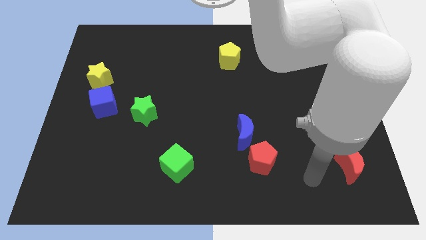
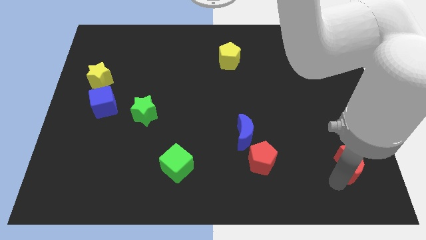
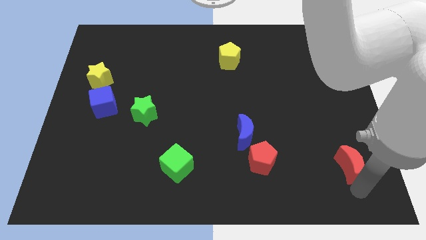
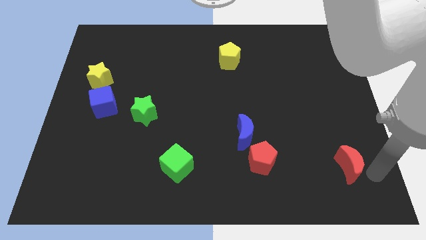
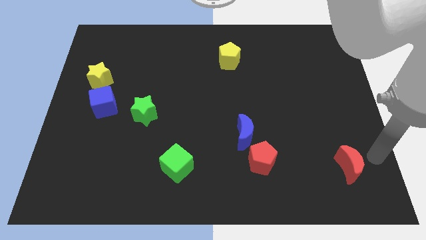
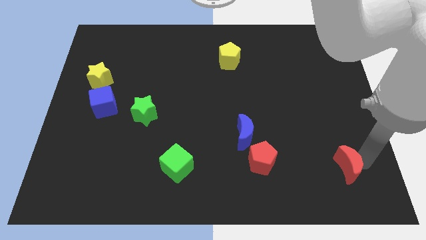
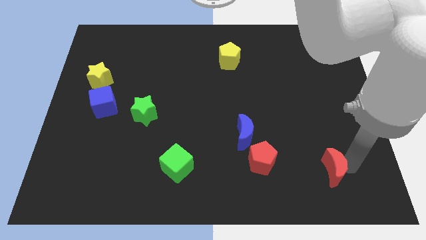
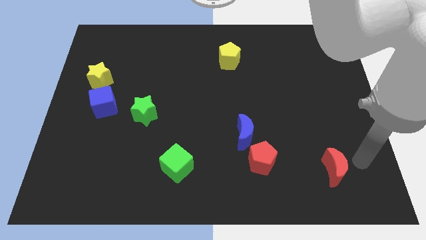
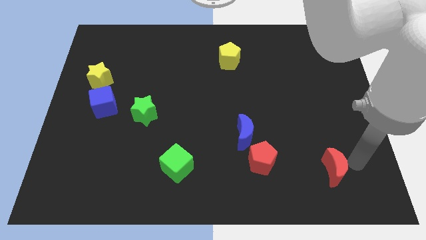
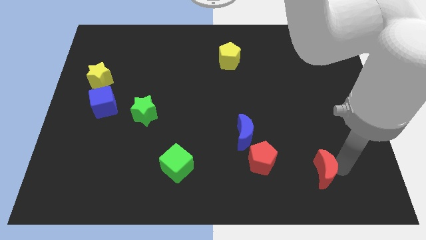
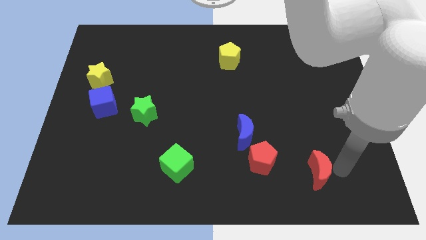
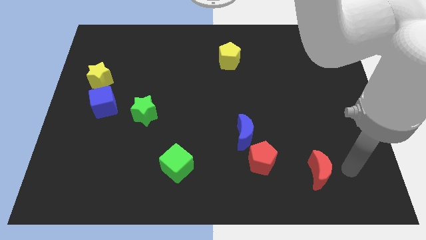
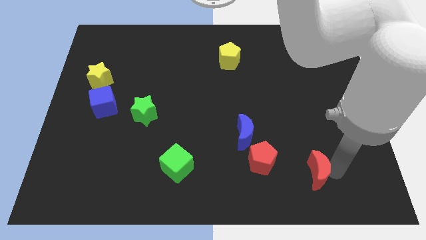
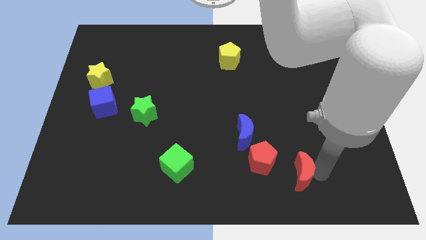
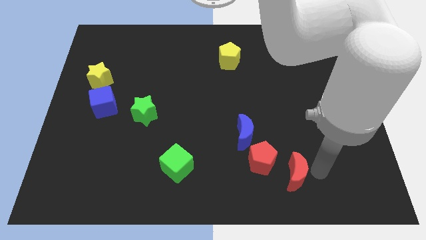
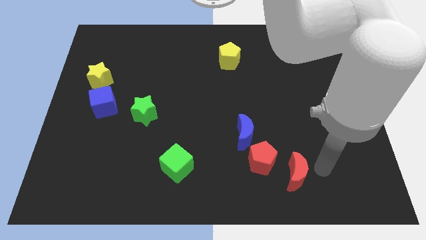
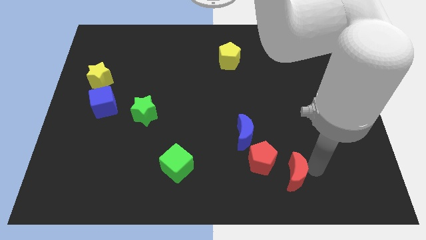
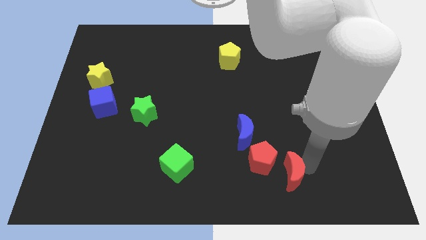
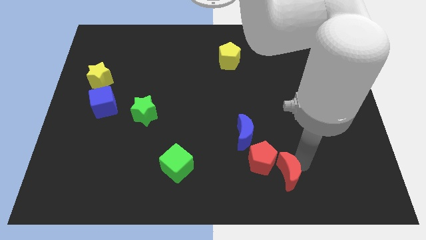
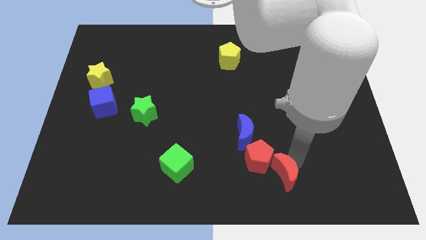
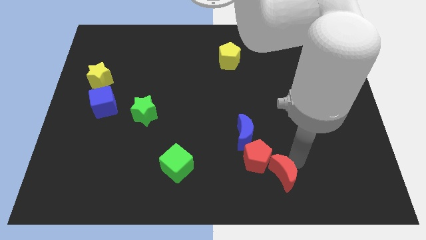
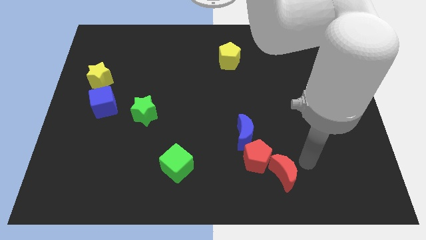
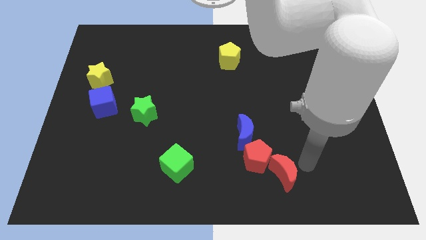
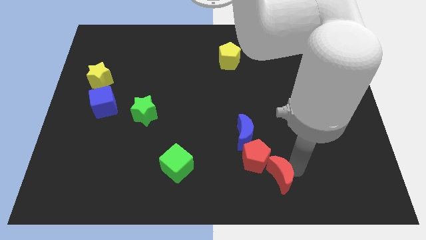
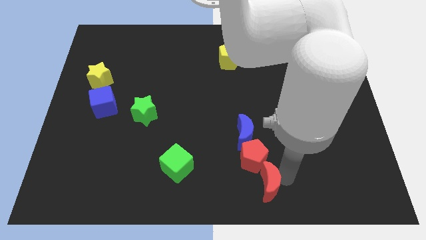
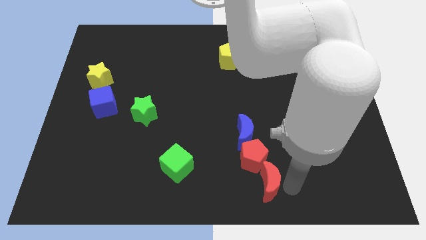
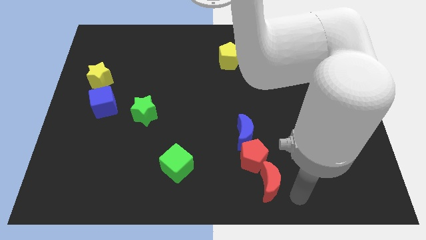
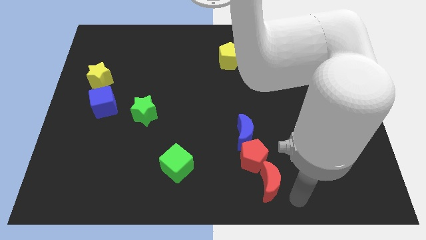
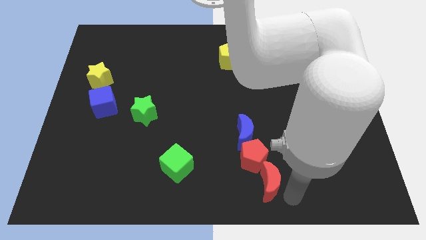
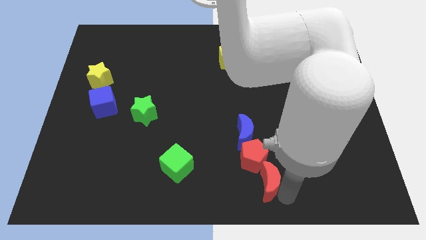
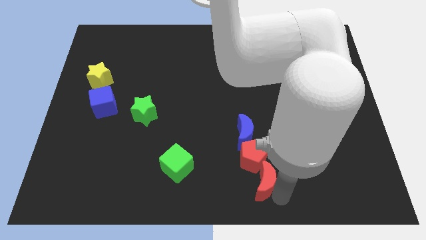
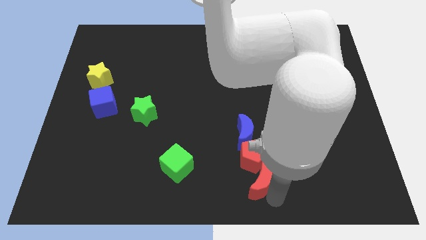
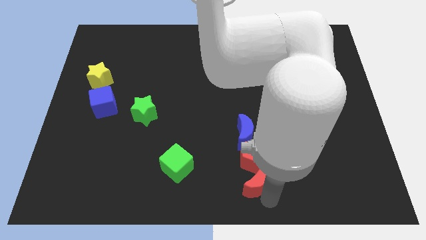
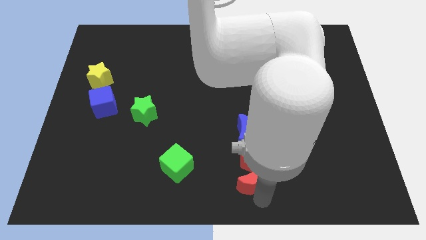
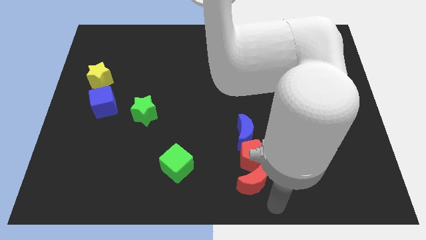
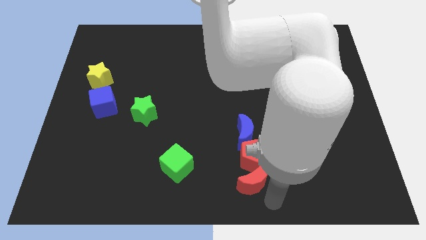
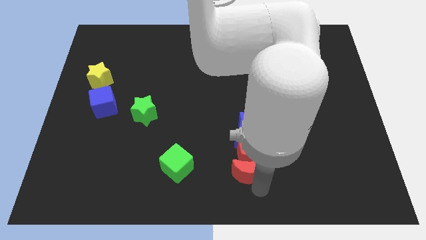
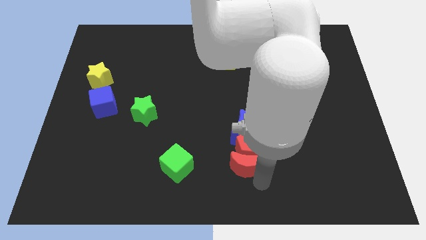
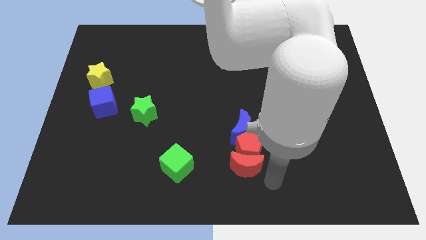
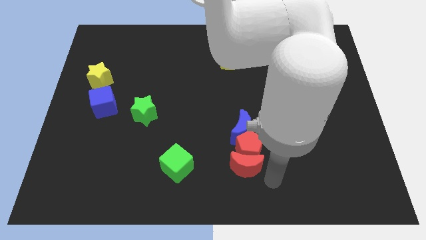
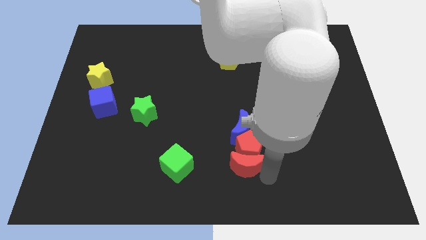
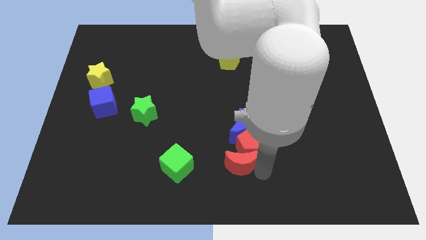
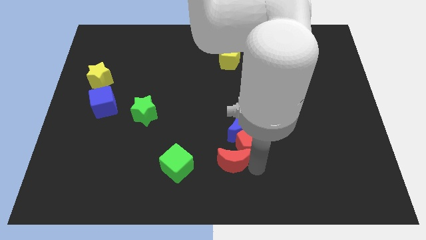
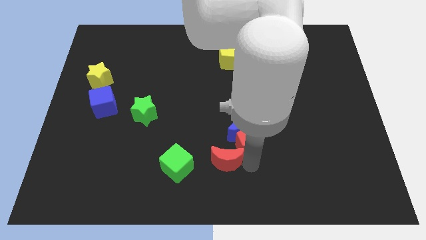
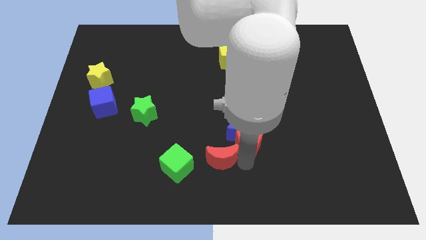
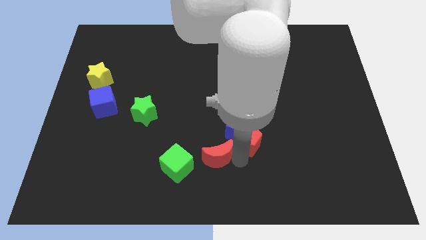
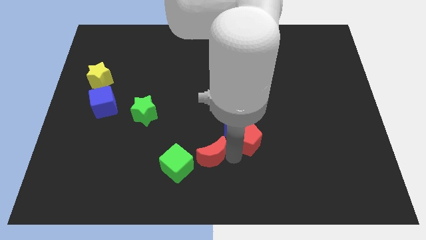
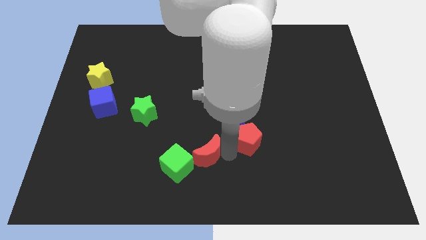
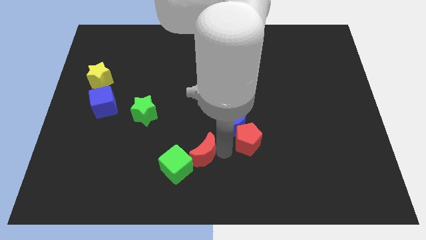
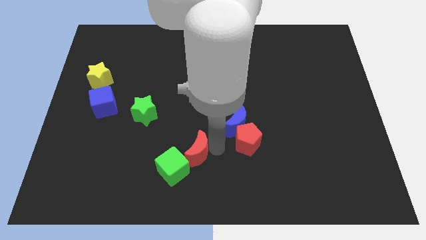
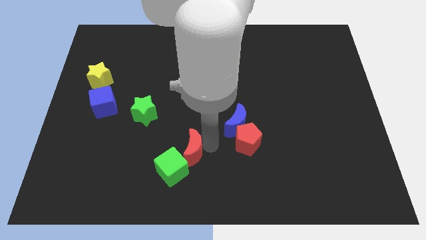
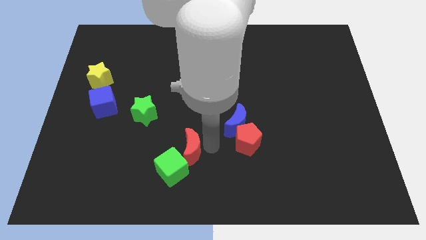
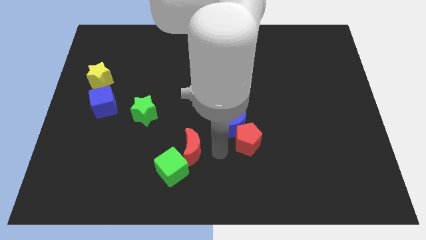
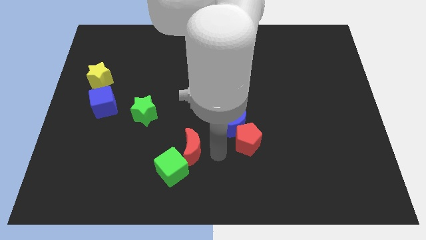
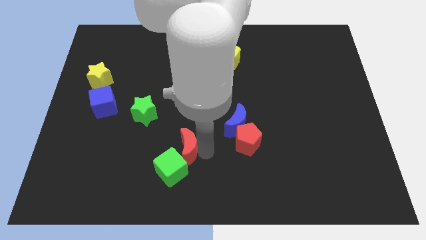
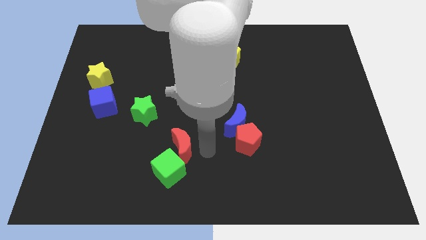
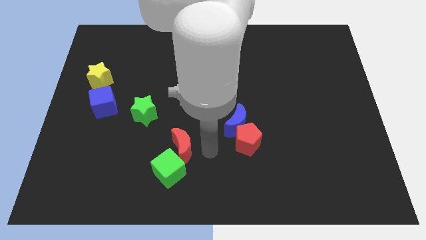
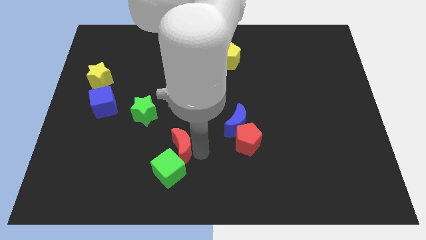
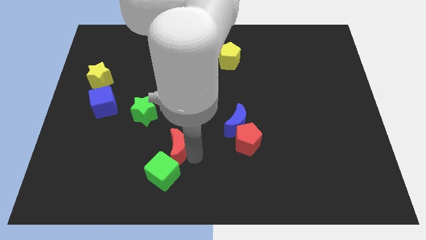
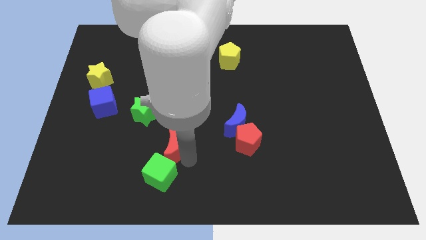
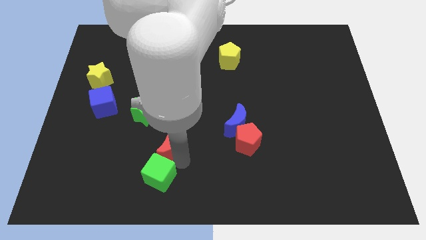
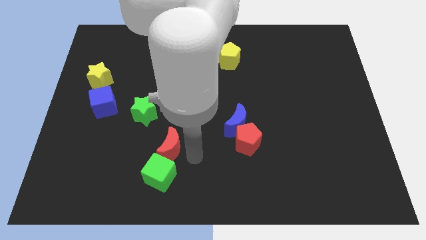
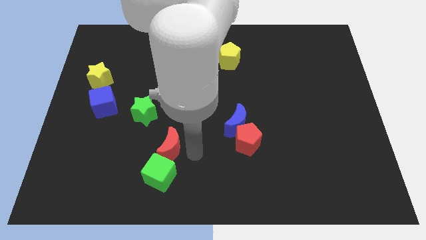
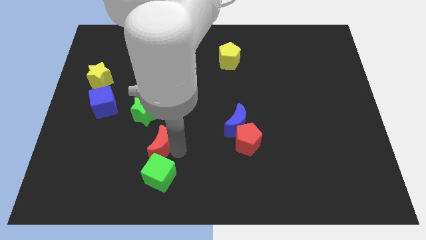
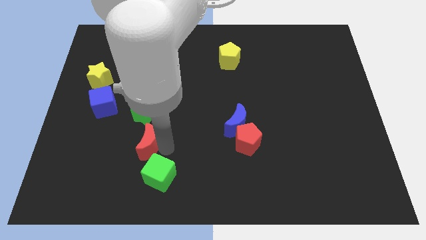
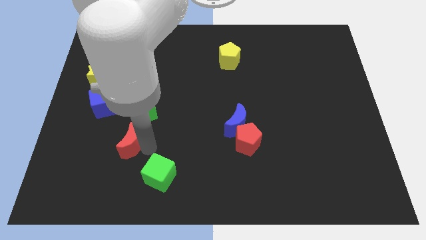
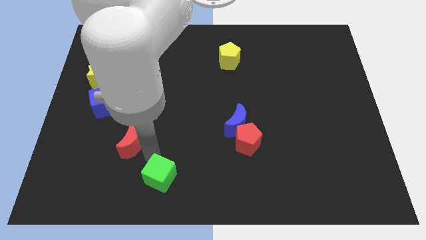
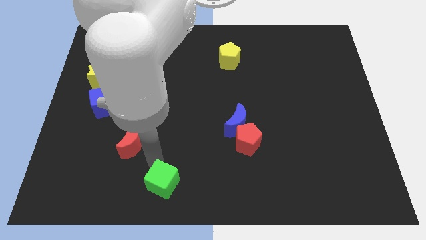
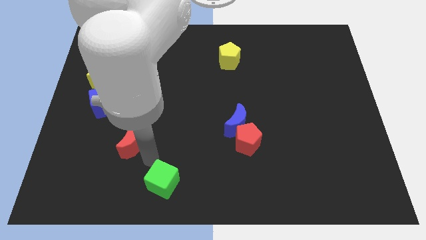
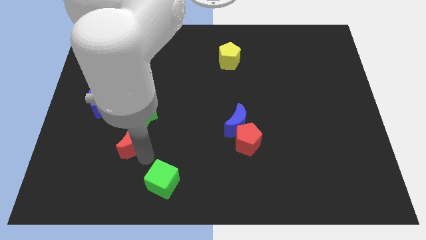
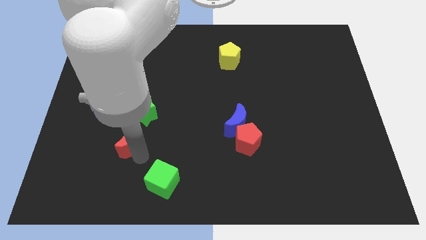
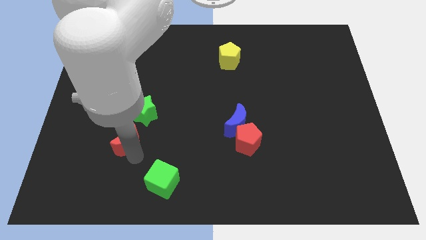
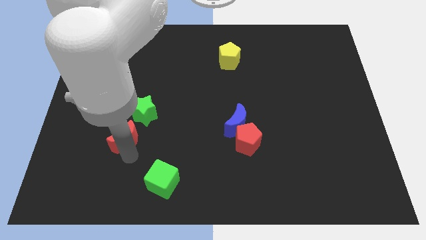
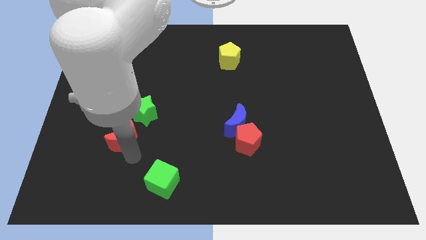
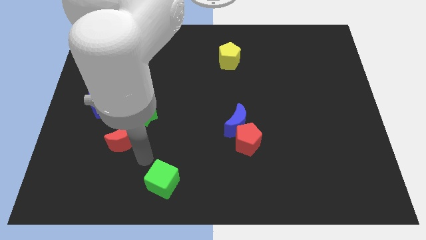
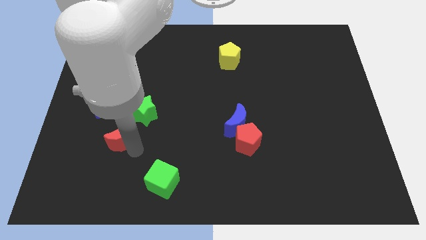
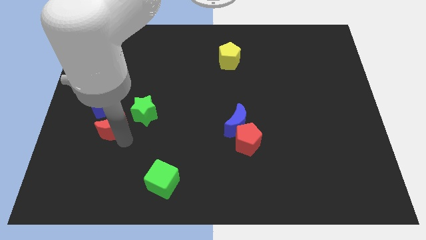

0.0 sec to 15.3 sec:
put the red moon to the left side of the green star
